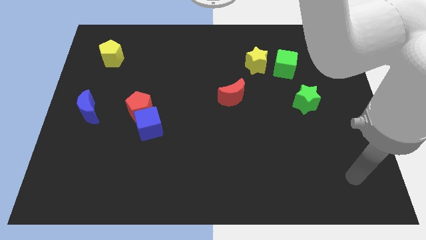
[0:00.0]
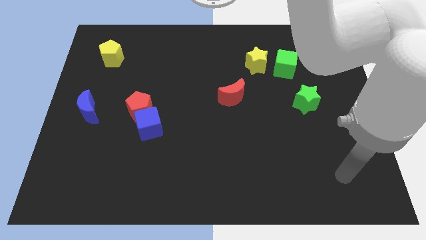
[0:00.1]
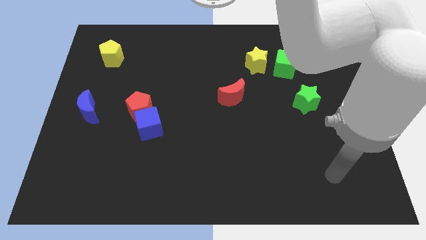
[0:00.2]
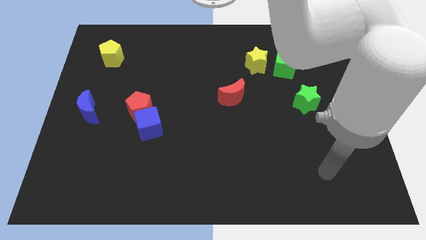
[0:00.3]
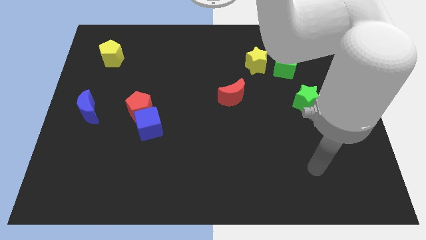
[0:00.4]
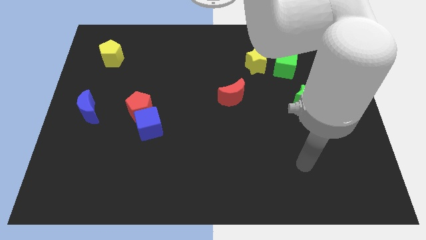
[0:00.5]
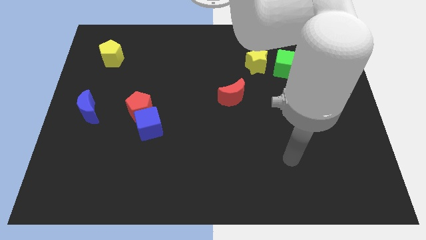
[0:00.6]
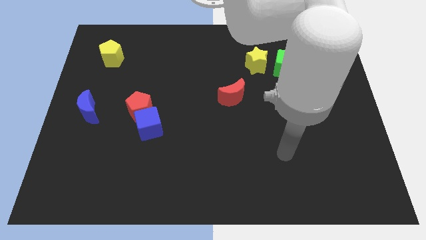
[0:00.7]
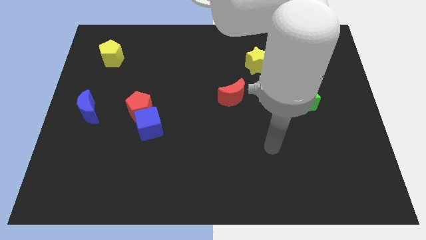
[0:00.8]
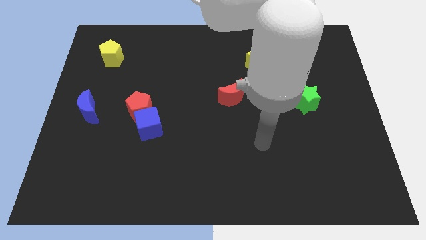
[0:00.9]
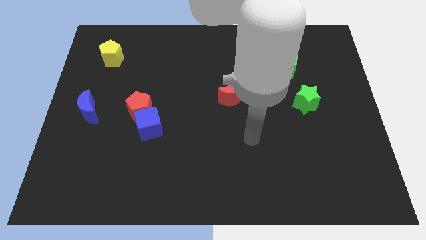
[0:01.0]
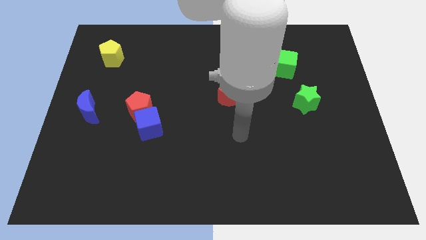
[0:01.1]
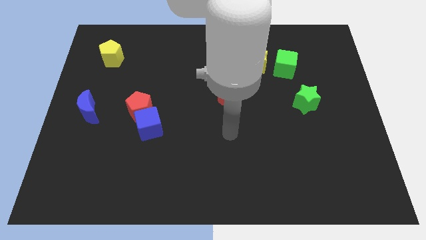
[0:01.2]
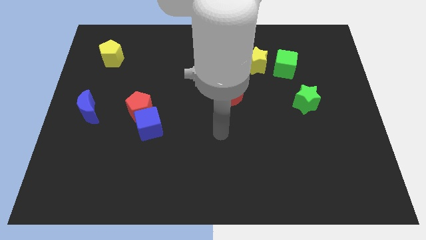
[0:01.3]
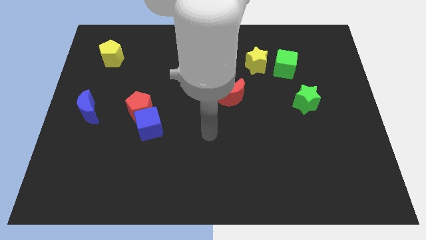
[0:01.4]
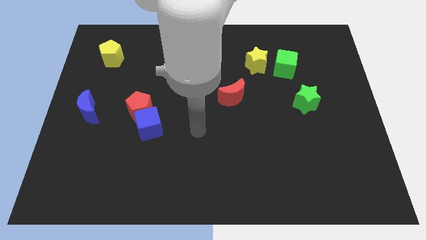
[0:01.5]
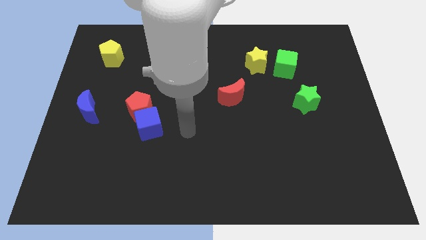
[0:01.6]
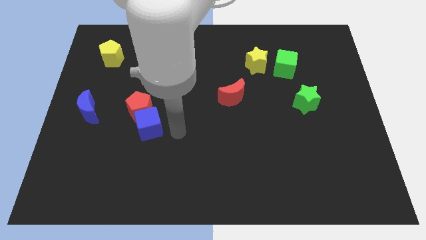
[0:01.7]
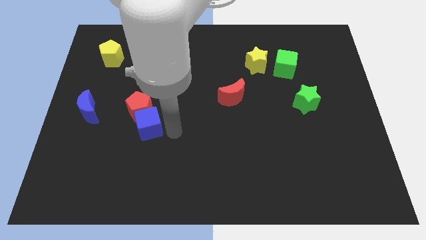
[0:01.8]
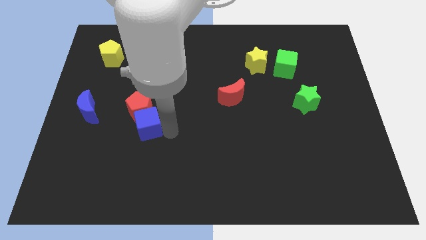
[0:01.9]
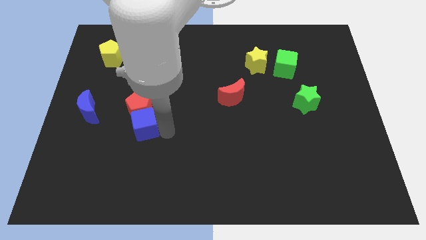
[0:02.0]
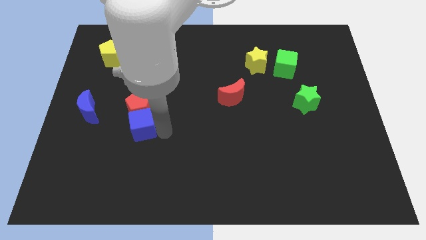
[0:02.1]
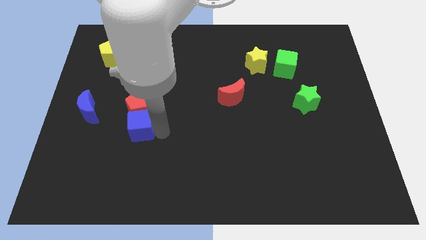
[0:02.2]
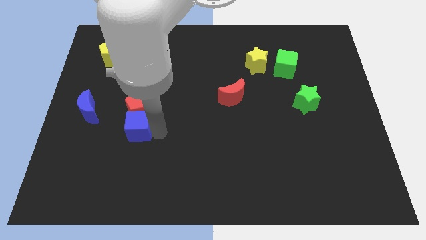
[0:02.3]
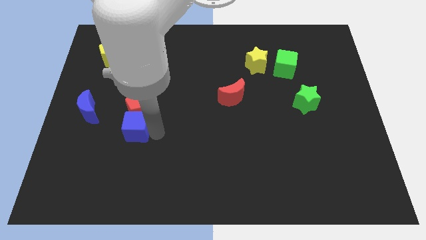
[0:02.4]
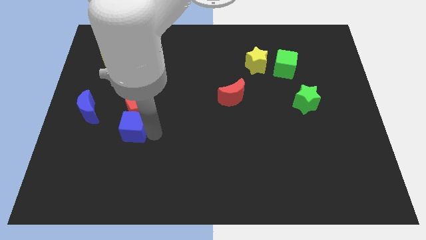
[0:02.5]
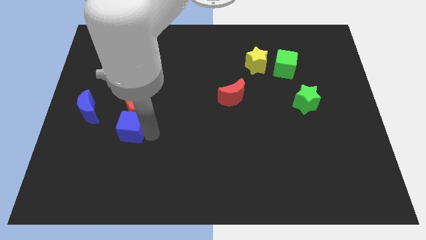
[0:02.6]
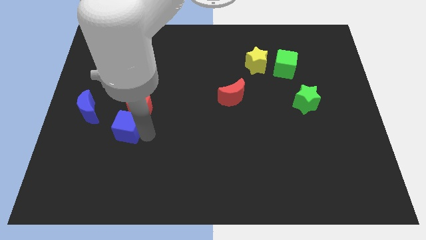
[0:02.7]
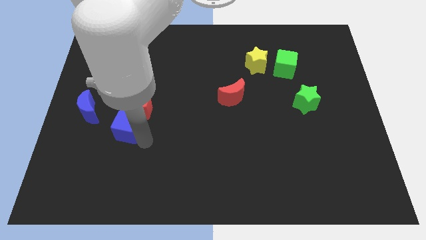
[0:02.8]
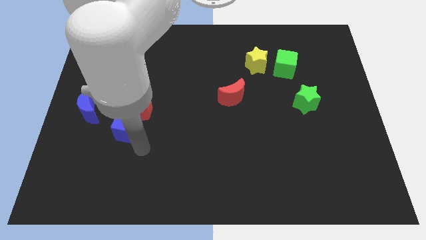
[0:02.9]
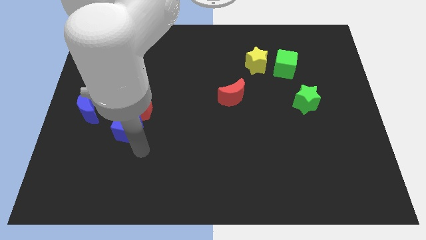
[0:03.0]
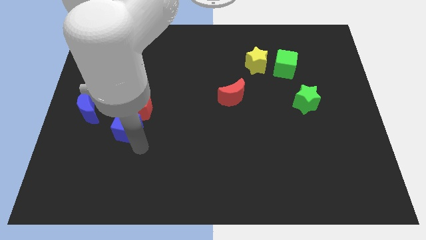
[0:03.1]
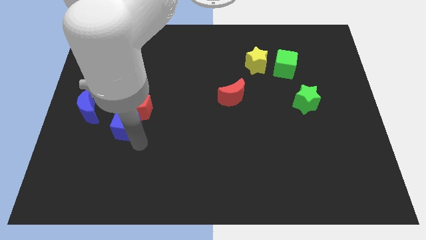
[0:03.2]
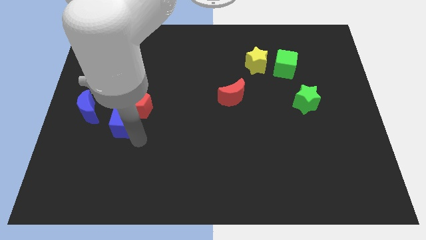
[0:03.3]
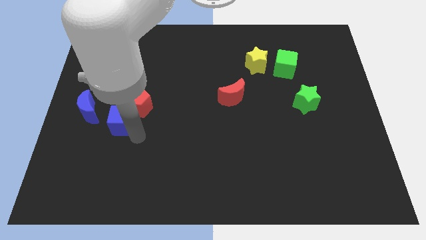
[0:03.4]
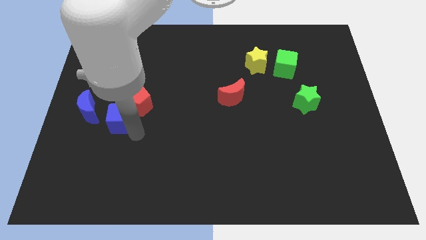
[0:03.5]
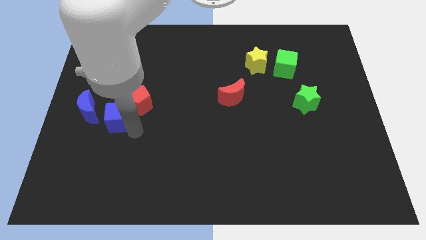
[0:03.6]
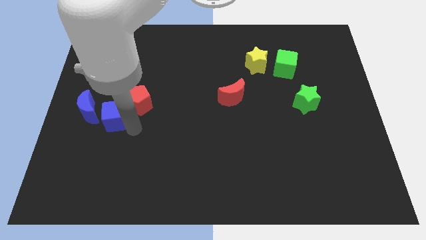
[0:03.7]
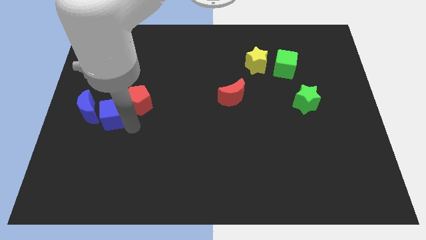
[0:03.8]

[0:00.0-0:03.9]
push the blue cube upwards and to the left diagonally somewhat

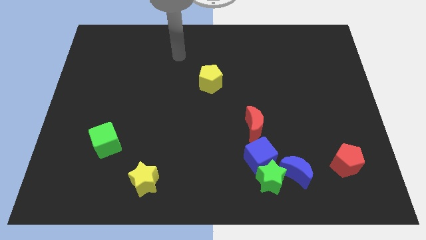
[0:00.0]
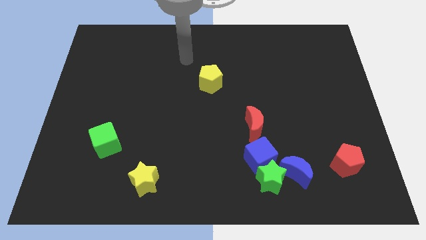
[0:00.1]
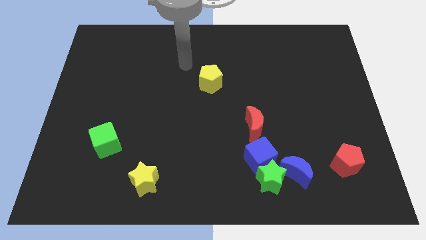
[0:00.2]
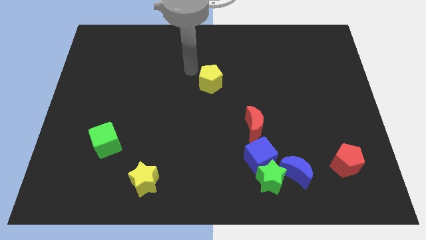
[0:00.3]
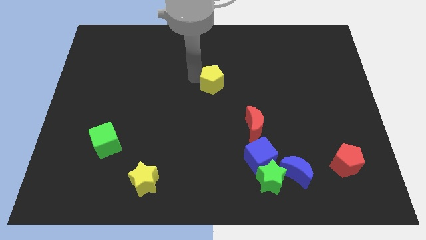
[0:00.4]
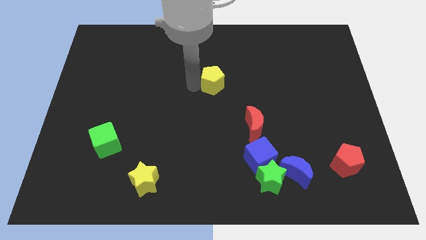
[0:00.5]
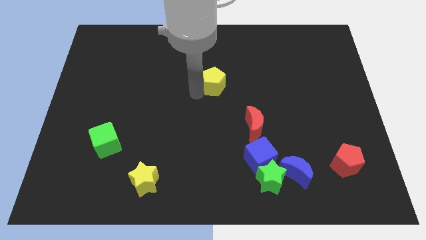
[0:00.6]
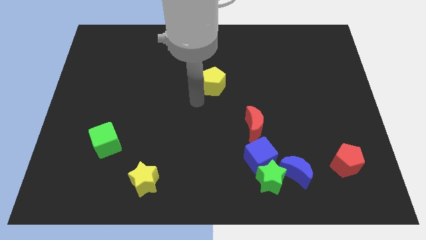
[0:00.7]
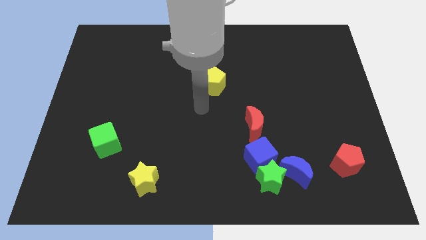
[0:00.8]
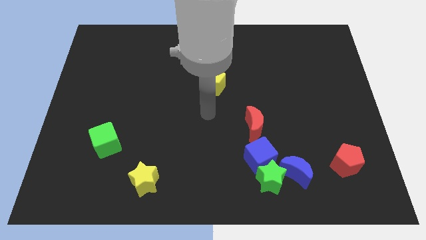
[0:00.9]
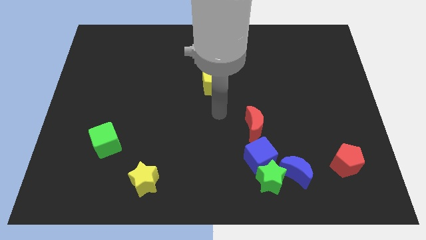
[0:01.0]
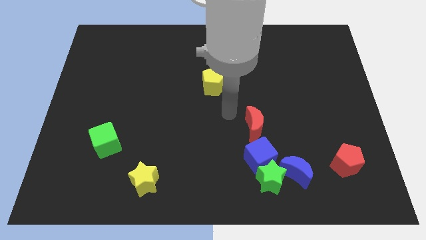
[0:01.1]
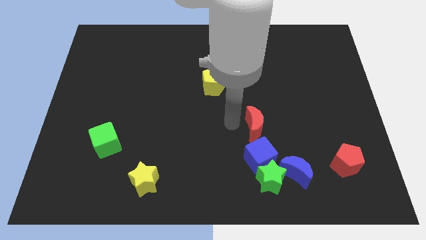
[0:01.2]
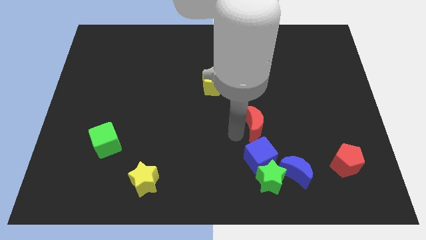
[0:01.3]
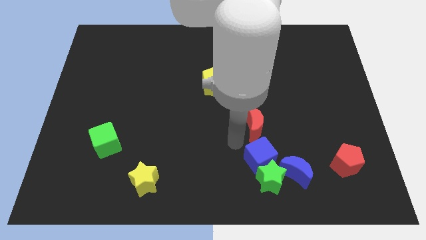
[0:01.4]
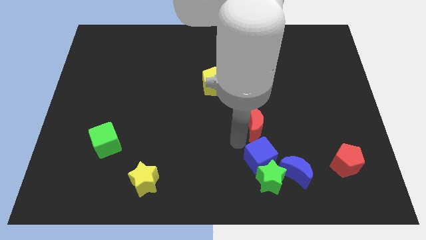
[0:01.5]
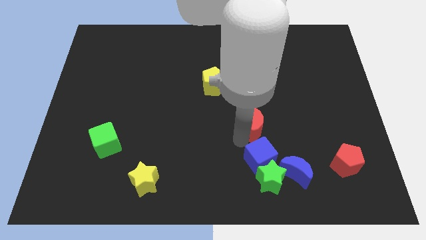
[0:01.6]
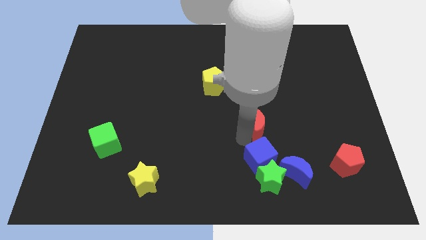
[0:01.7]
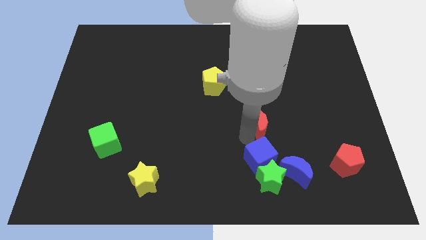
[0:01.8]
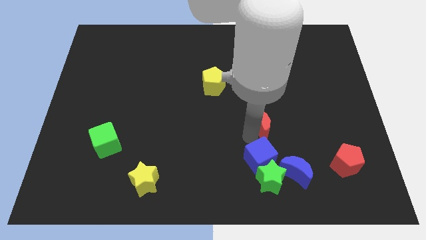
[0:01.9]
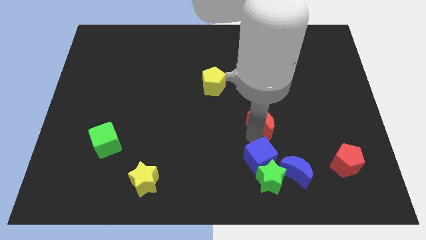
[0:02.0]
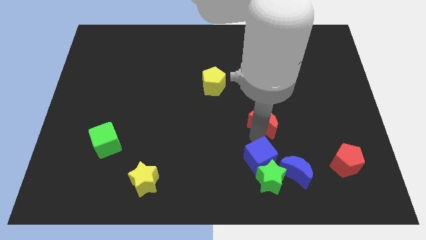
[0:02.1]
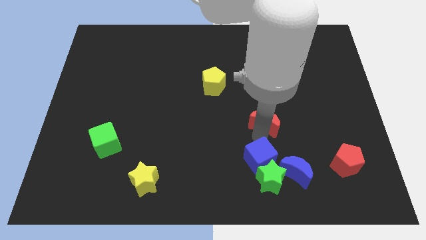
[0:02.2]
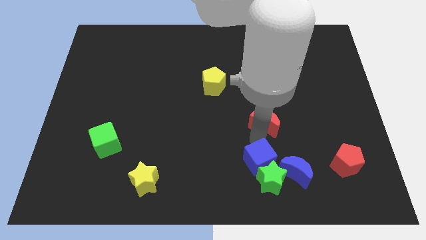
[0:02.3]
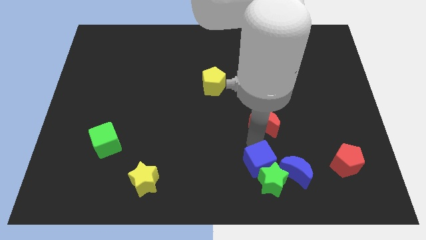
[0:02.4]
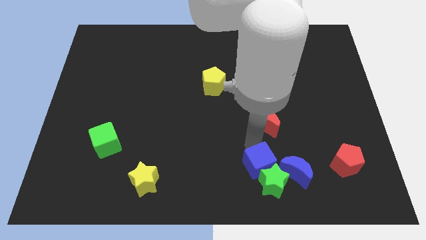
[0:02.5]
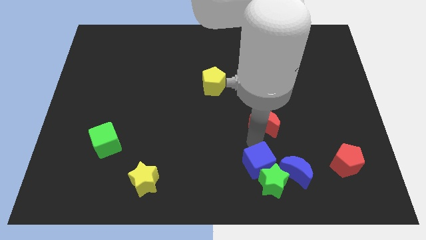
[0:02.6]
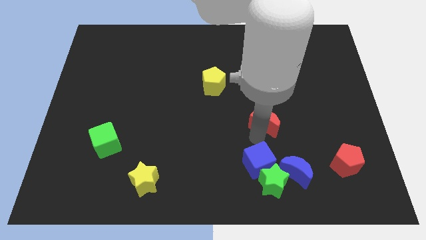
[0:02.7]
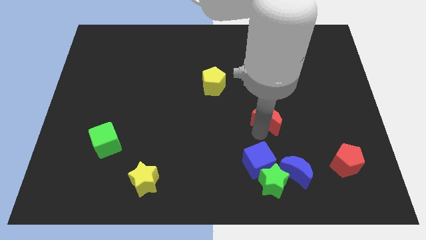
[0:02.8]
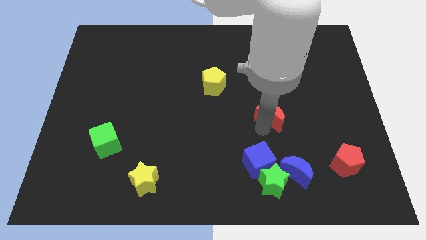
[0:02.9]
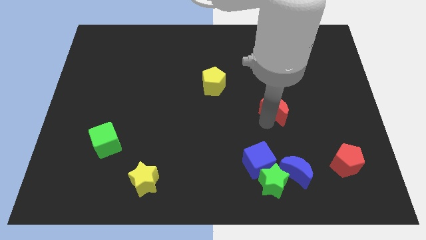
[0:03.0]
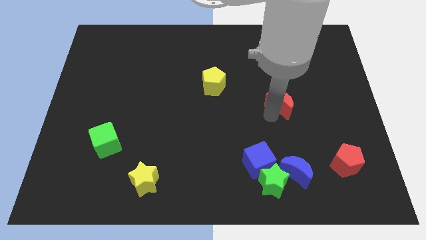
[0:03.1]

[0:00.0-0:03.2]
push the red moon a bit up and to the right diagonally

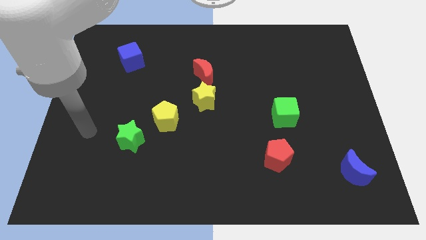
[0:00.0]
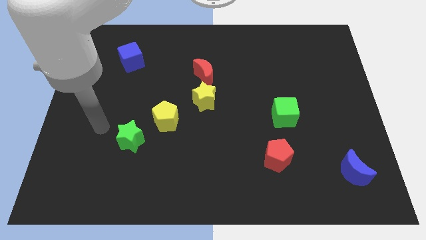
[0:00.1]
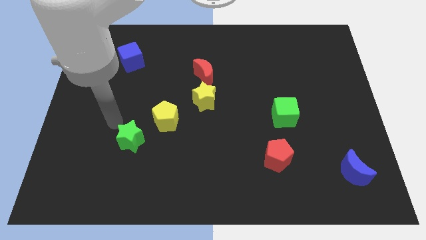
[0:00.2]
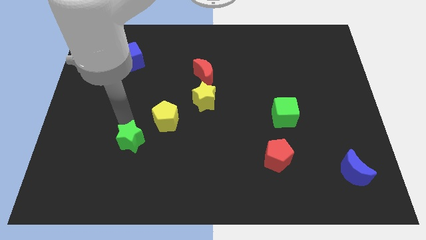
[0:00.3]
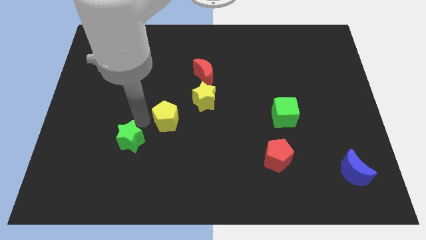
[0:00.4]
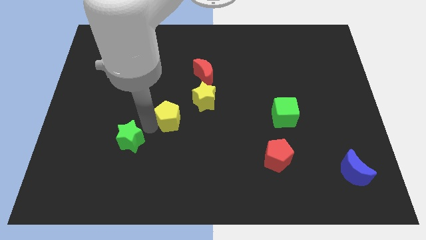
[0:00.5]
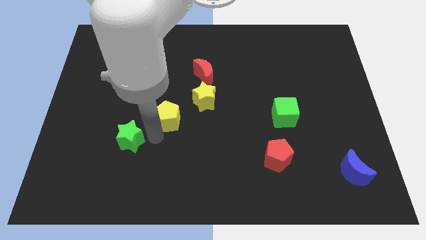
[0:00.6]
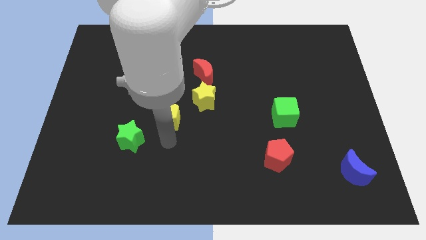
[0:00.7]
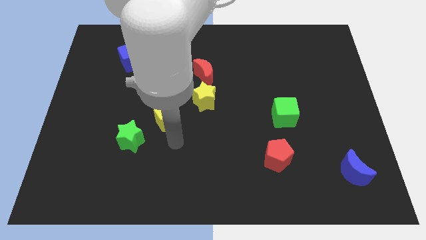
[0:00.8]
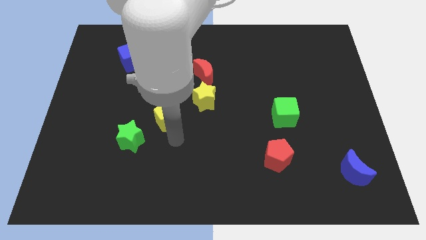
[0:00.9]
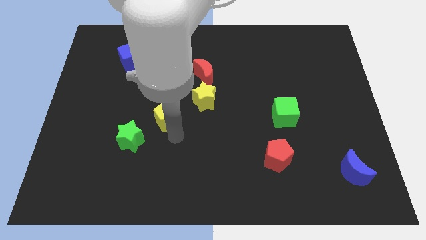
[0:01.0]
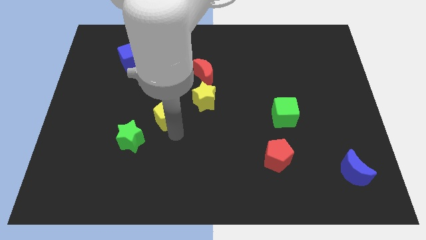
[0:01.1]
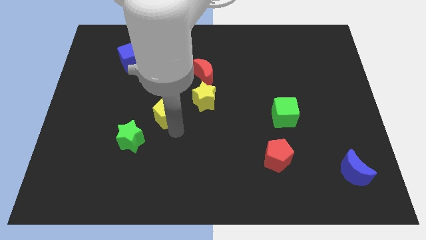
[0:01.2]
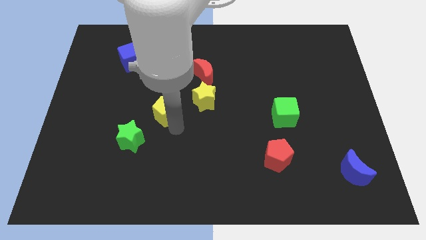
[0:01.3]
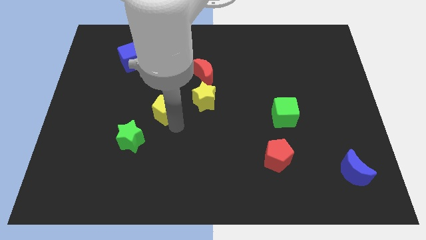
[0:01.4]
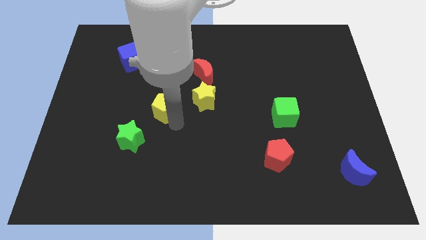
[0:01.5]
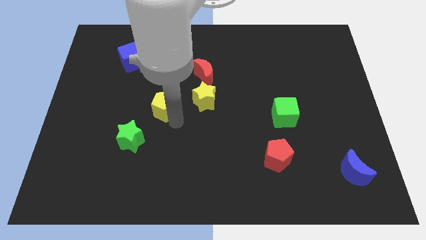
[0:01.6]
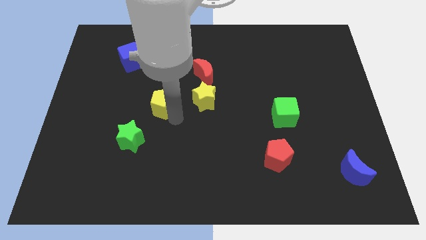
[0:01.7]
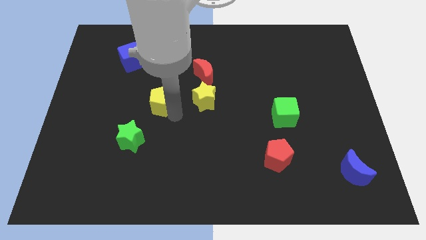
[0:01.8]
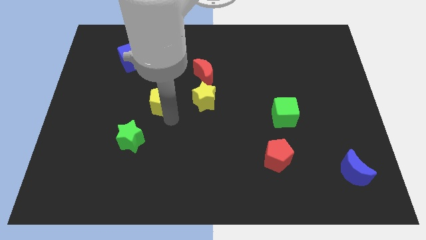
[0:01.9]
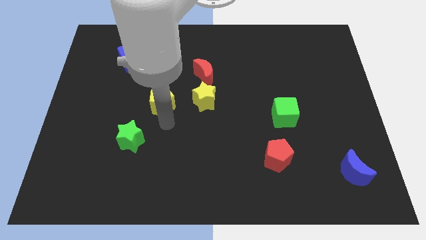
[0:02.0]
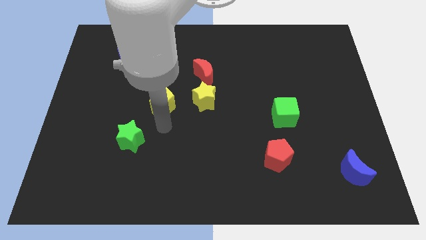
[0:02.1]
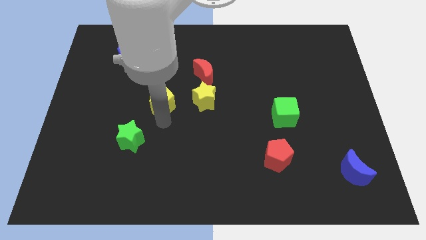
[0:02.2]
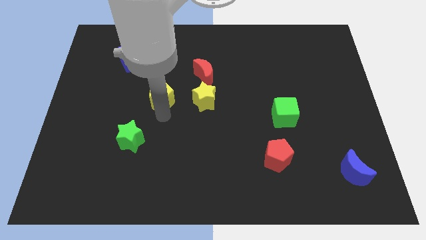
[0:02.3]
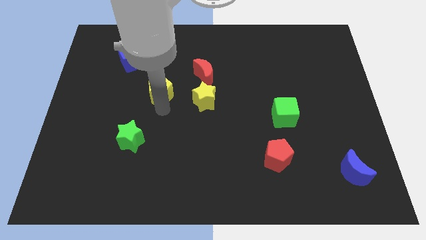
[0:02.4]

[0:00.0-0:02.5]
push the yellow pentagon upwards a little
